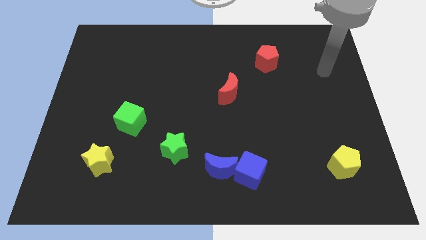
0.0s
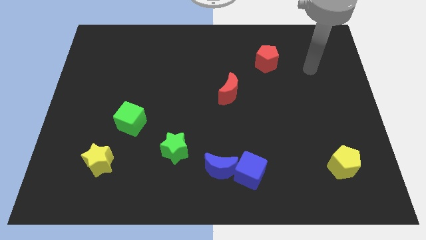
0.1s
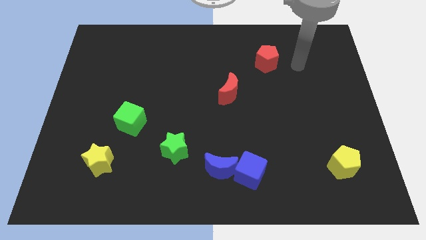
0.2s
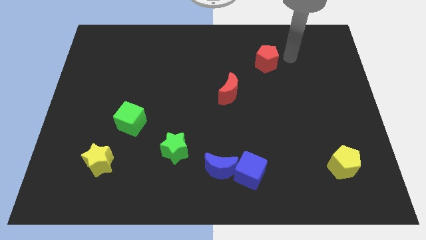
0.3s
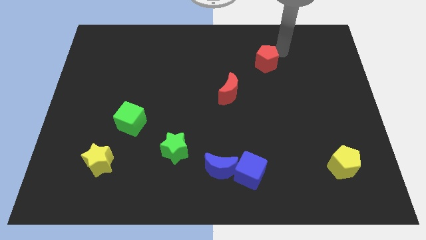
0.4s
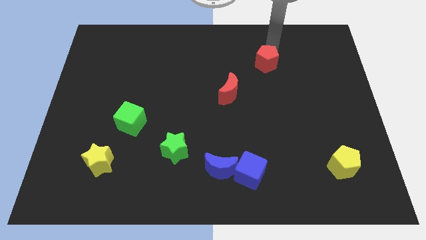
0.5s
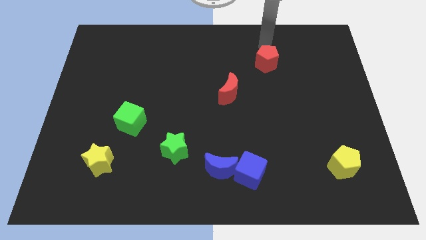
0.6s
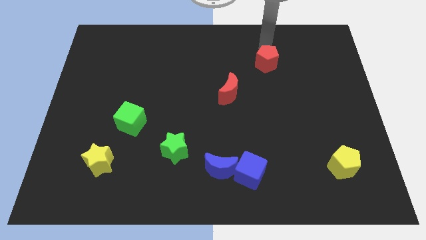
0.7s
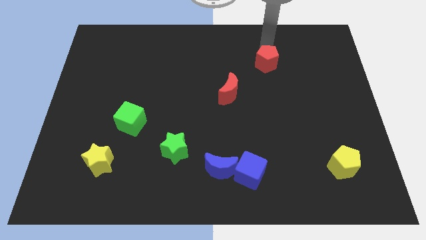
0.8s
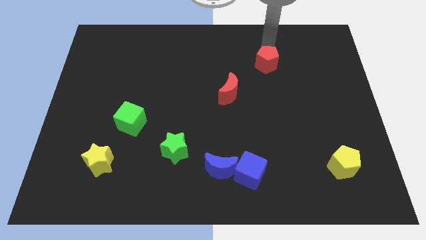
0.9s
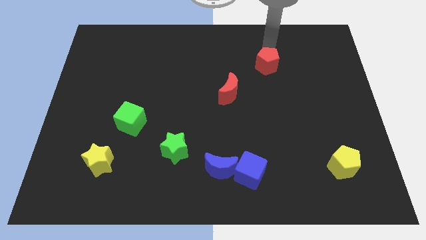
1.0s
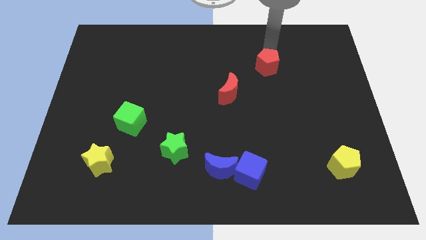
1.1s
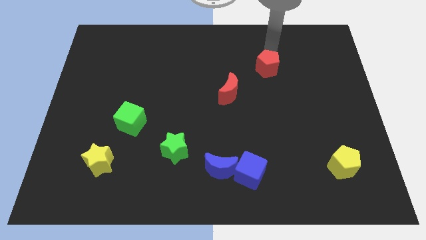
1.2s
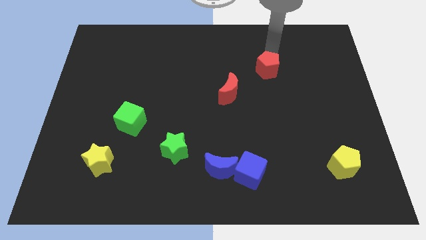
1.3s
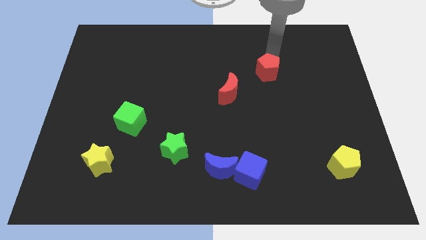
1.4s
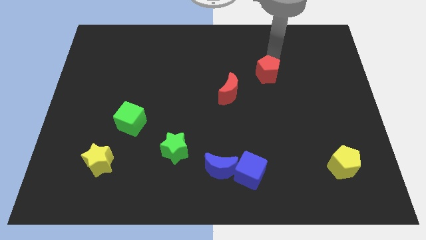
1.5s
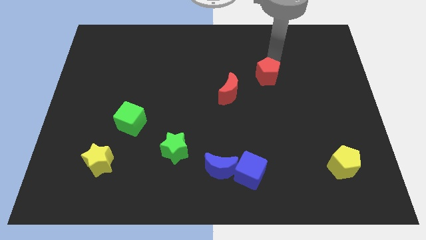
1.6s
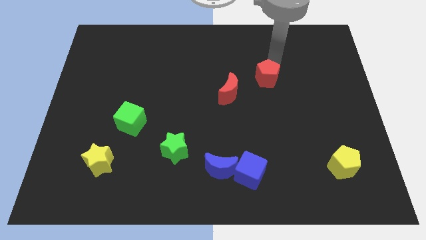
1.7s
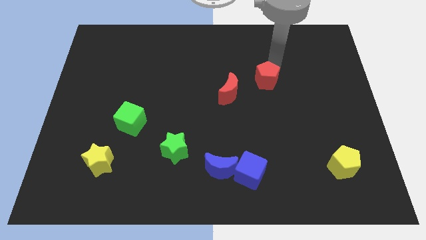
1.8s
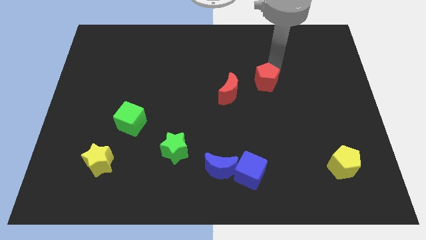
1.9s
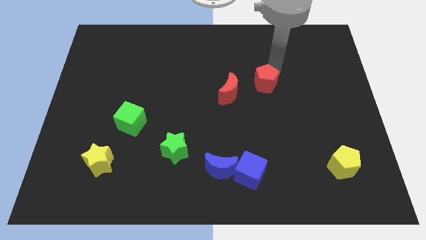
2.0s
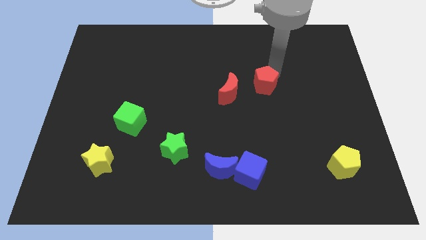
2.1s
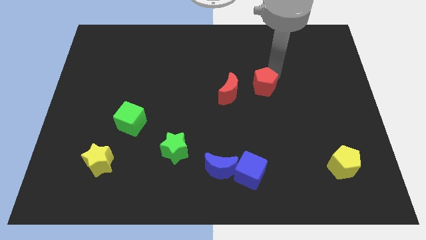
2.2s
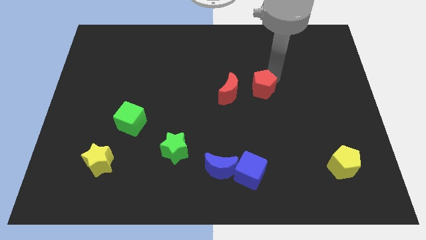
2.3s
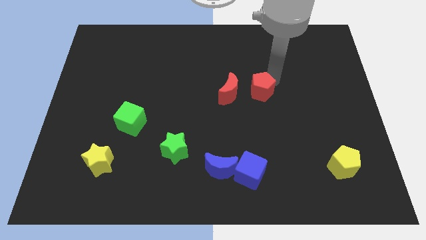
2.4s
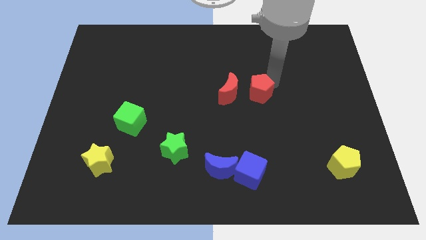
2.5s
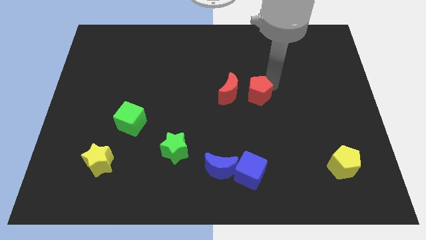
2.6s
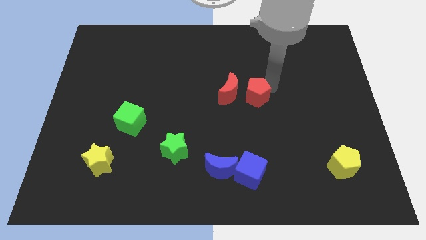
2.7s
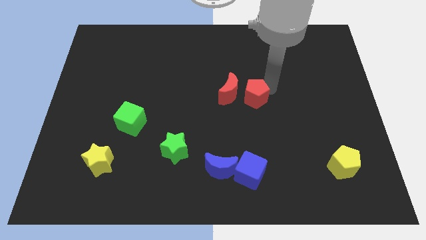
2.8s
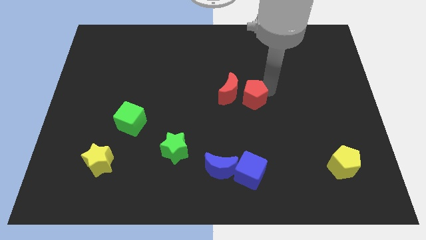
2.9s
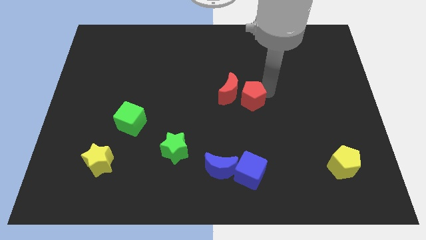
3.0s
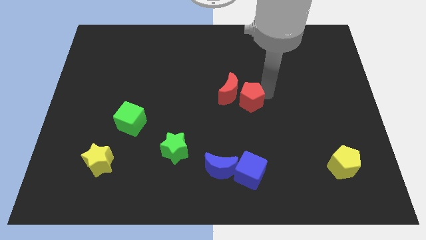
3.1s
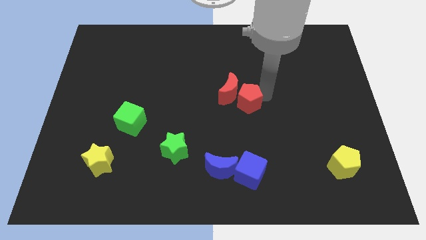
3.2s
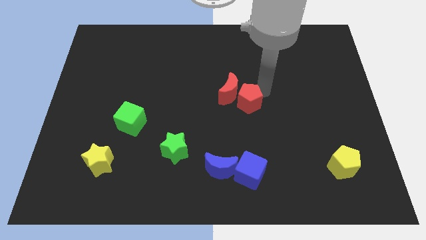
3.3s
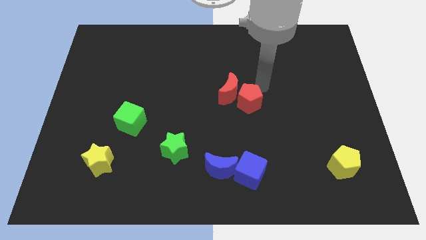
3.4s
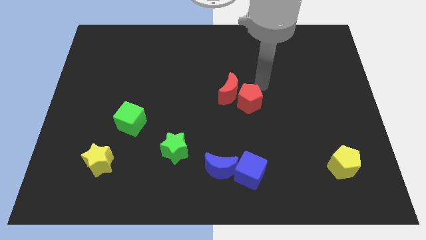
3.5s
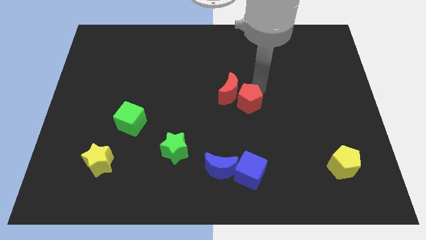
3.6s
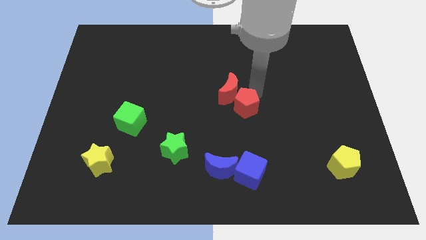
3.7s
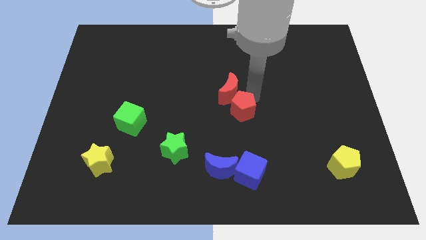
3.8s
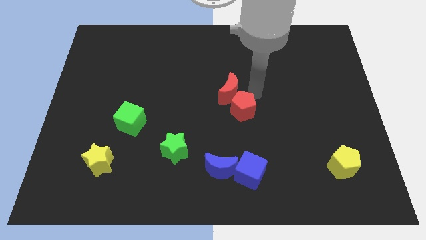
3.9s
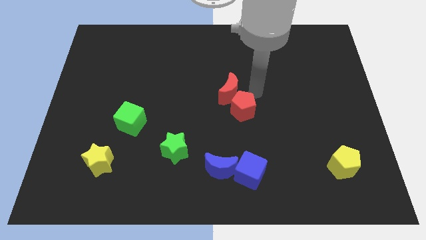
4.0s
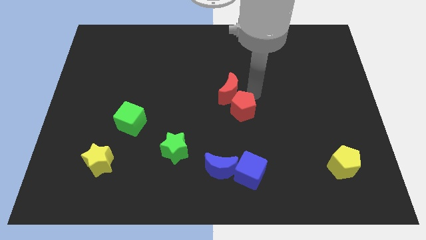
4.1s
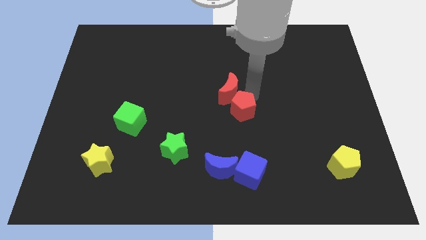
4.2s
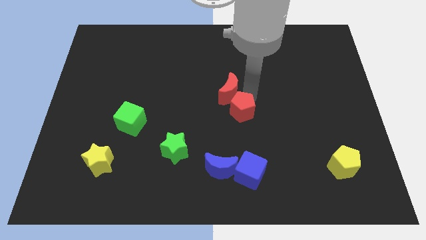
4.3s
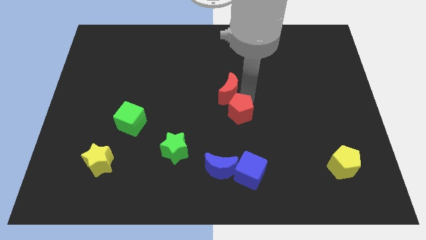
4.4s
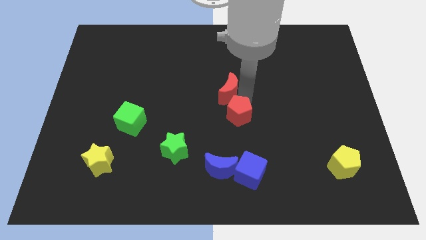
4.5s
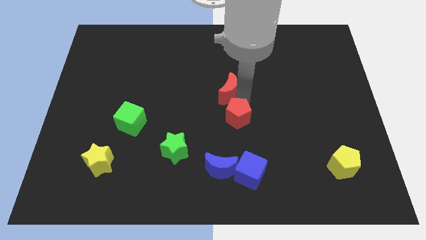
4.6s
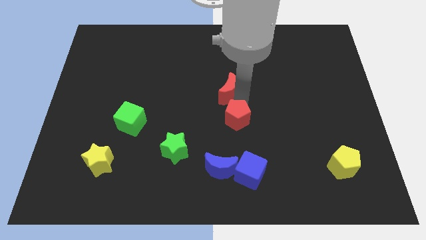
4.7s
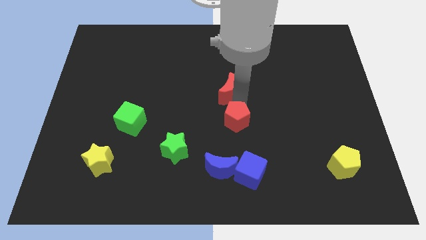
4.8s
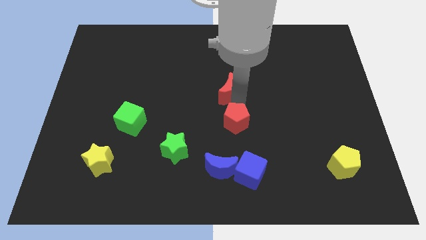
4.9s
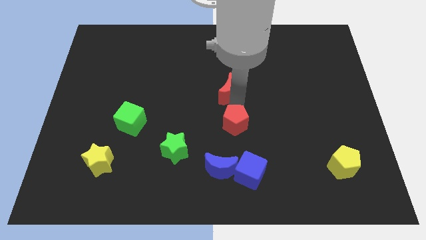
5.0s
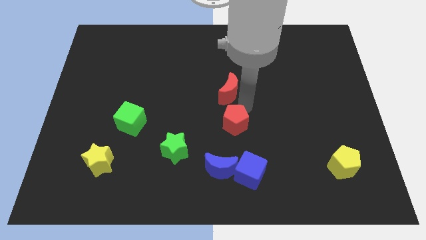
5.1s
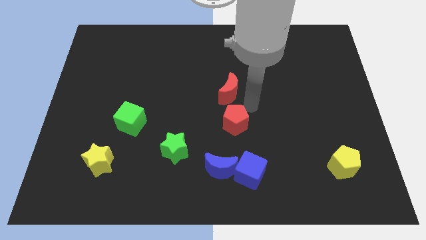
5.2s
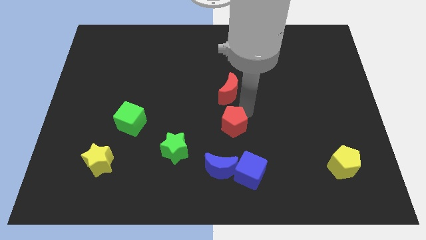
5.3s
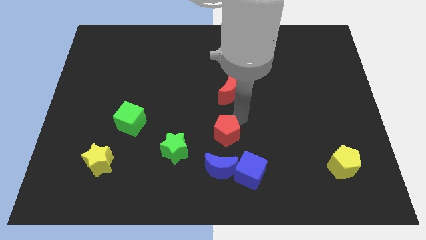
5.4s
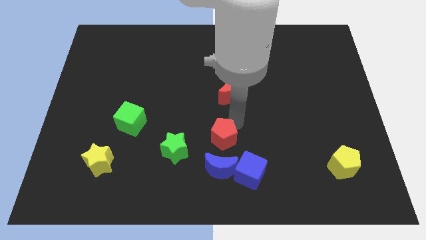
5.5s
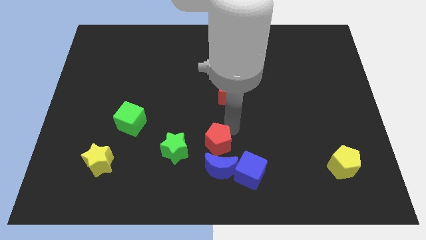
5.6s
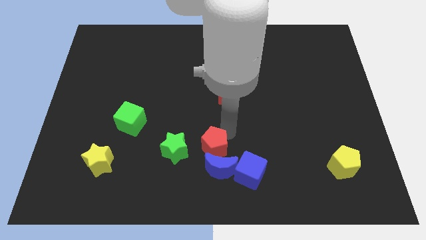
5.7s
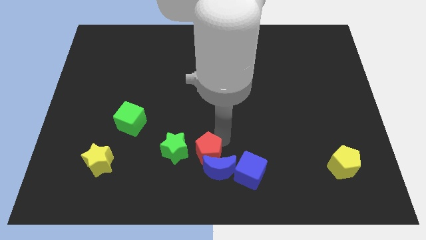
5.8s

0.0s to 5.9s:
slide the red pentagon to the bottom

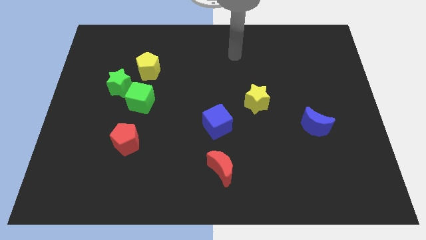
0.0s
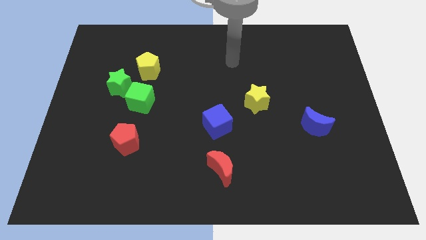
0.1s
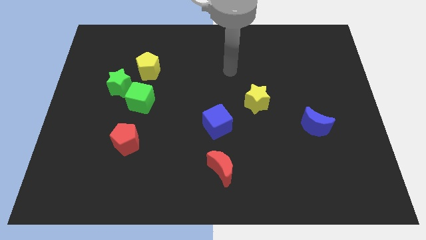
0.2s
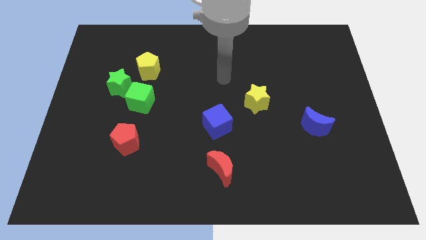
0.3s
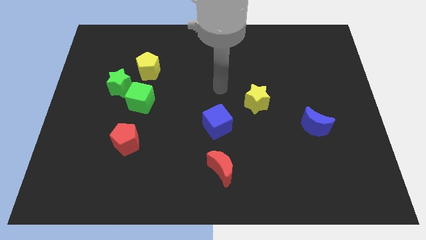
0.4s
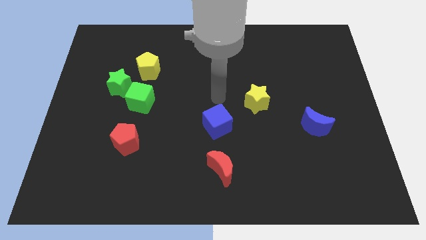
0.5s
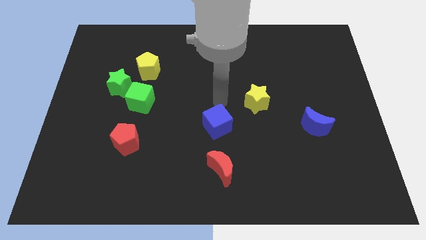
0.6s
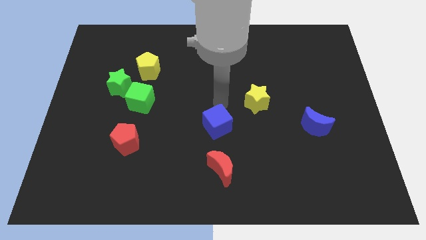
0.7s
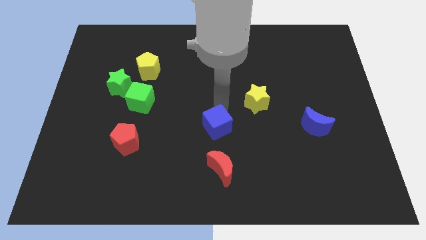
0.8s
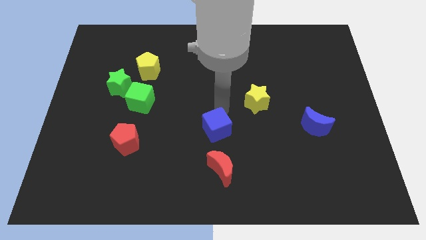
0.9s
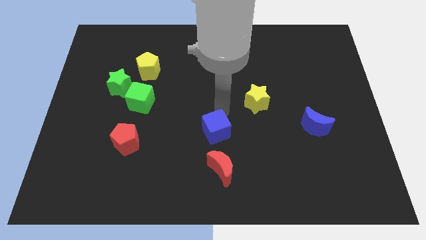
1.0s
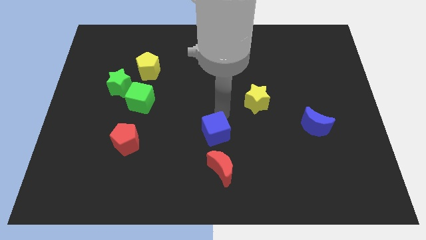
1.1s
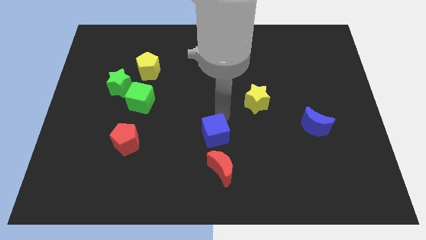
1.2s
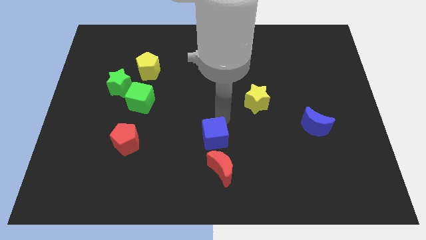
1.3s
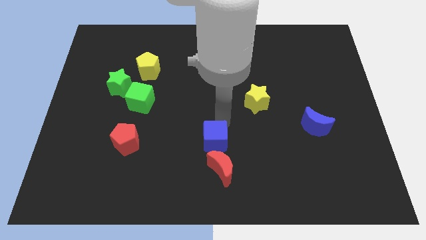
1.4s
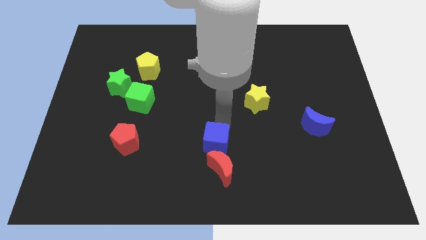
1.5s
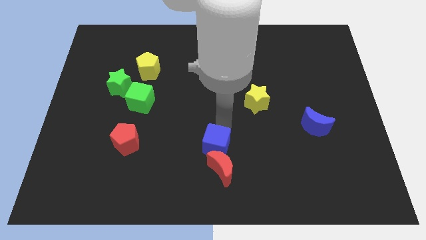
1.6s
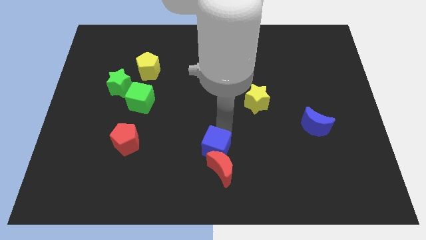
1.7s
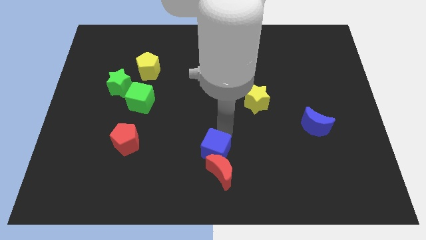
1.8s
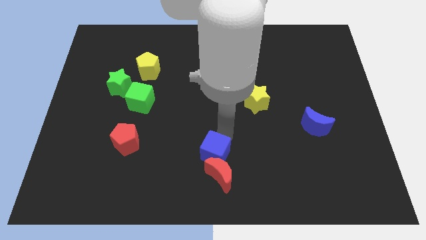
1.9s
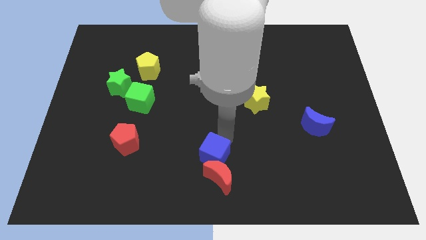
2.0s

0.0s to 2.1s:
move the blue cube to the bottom
